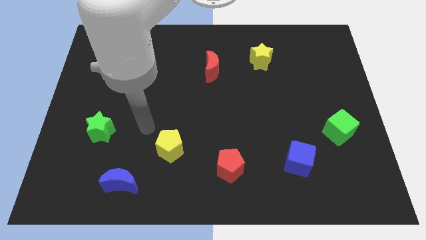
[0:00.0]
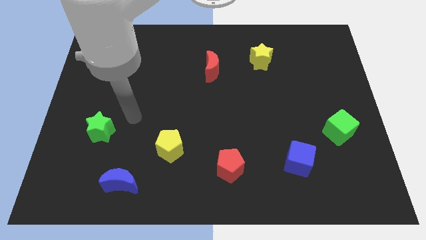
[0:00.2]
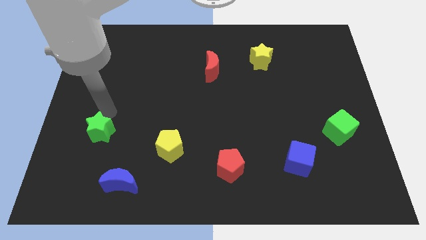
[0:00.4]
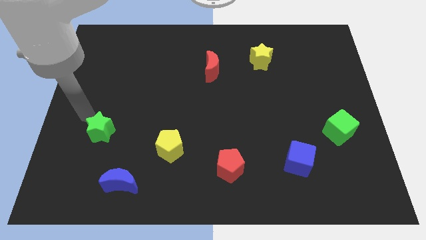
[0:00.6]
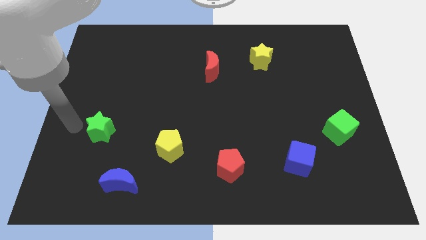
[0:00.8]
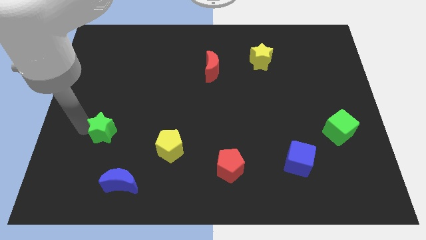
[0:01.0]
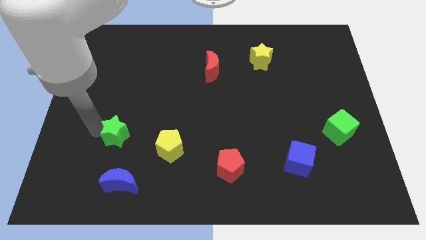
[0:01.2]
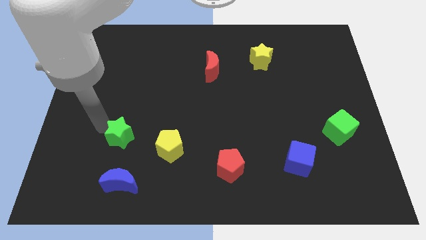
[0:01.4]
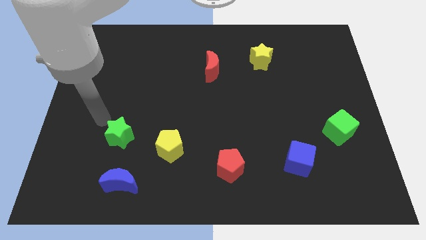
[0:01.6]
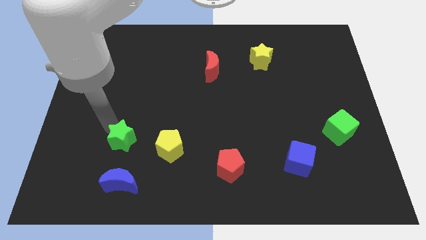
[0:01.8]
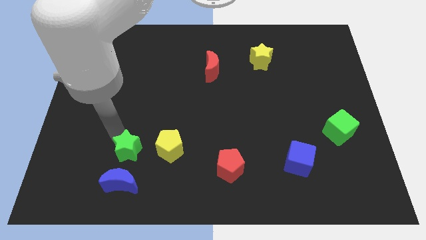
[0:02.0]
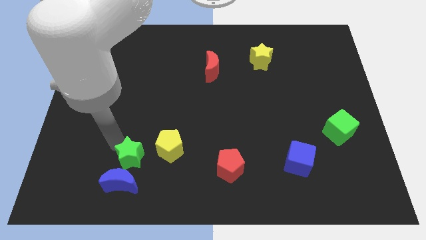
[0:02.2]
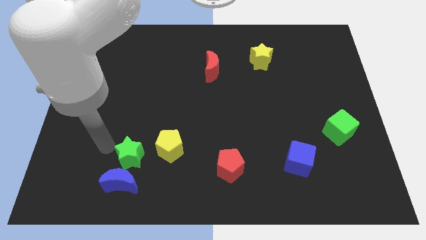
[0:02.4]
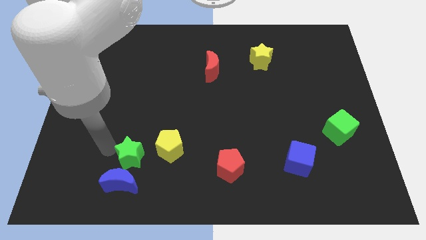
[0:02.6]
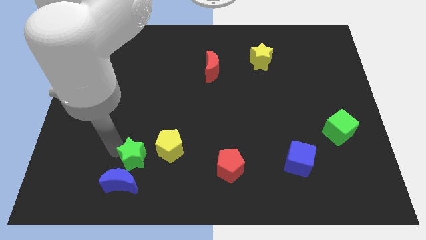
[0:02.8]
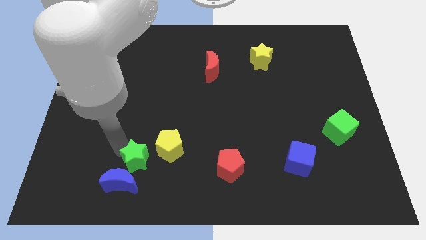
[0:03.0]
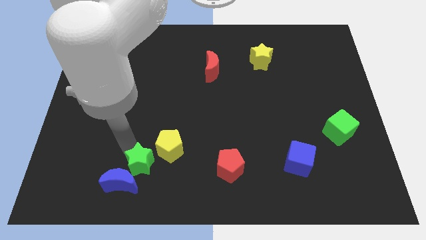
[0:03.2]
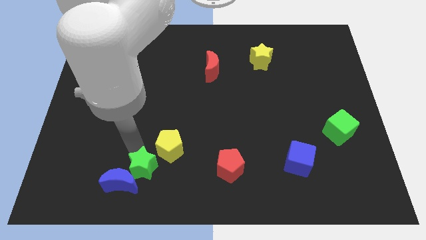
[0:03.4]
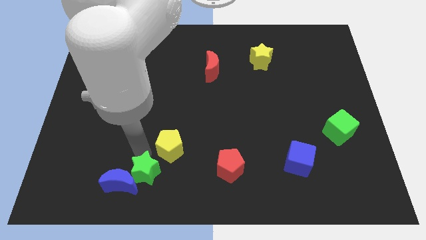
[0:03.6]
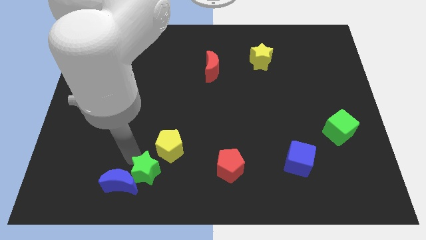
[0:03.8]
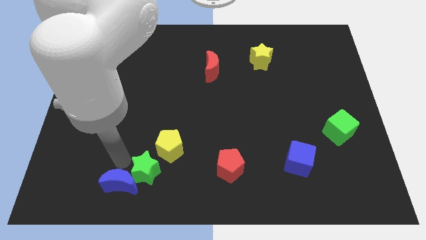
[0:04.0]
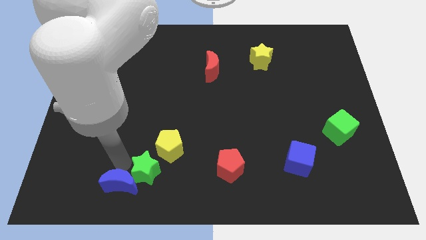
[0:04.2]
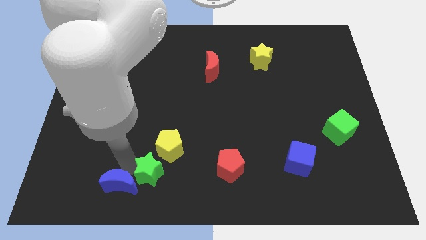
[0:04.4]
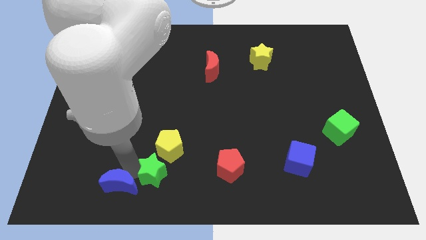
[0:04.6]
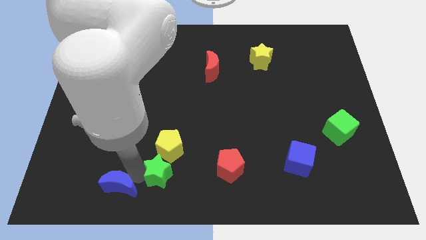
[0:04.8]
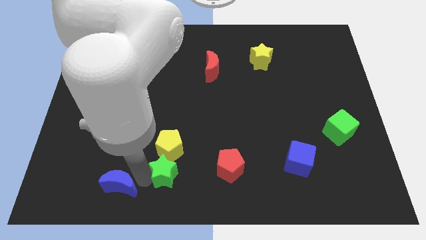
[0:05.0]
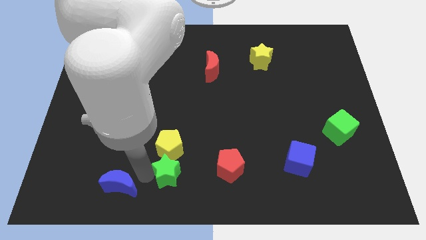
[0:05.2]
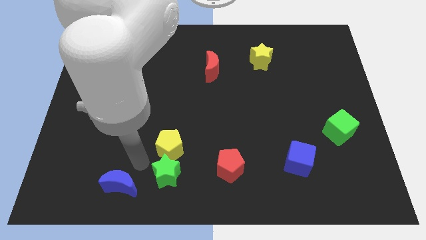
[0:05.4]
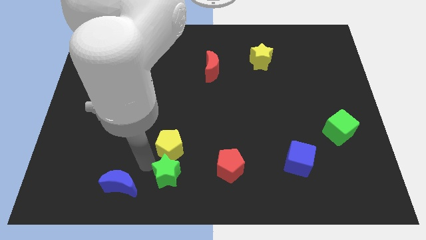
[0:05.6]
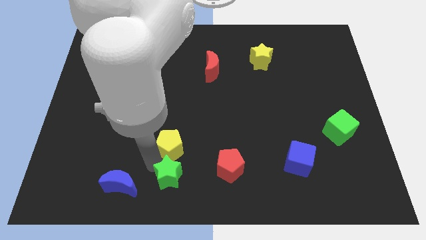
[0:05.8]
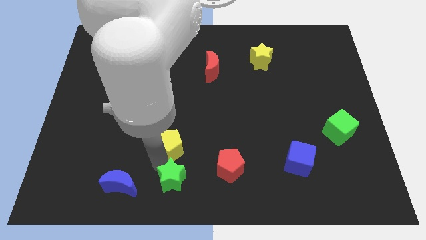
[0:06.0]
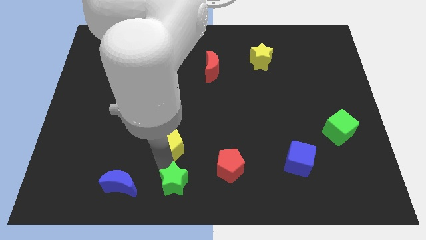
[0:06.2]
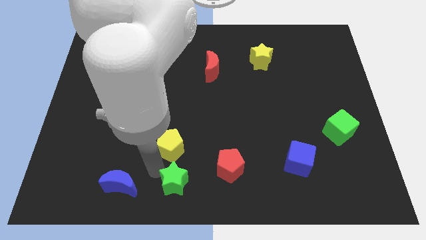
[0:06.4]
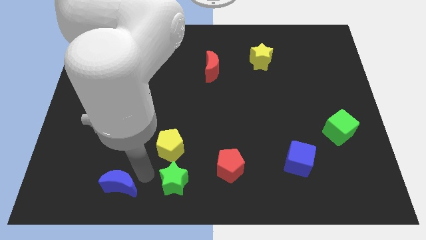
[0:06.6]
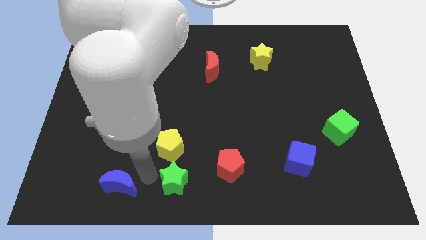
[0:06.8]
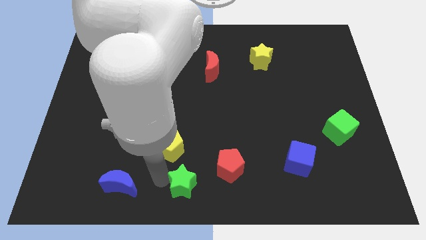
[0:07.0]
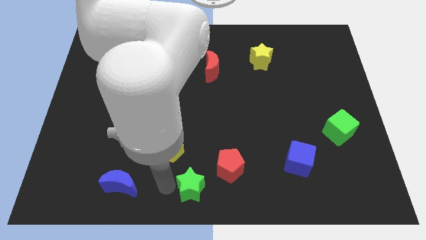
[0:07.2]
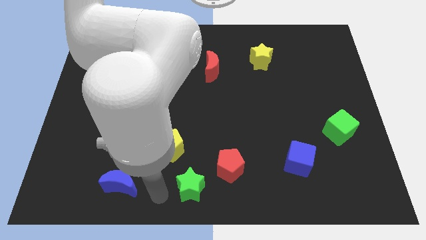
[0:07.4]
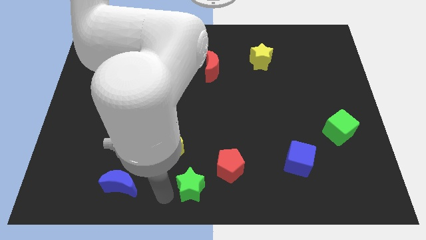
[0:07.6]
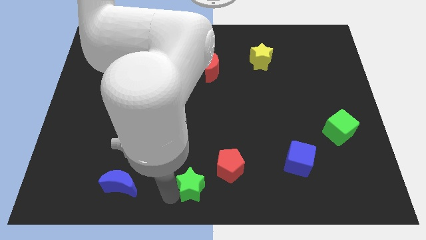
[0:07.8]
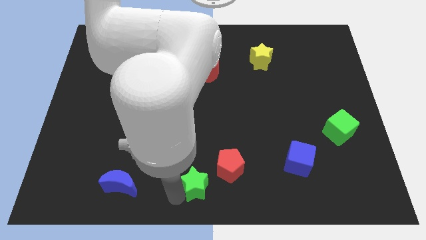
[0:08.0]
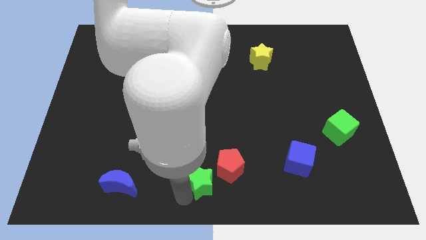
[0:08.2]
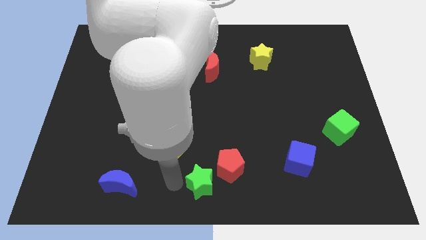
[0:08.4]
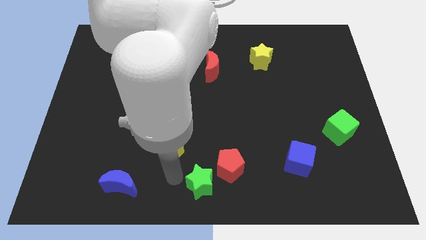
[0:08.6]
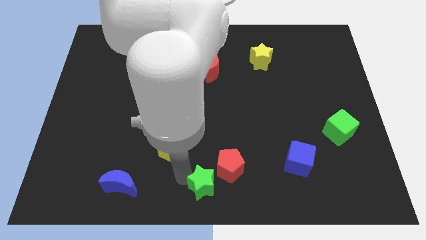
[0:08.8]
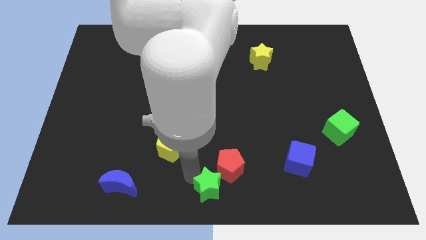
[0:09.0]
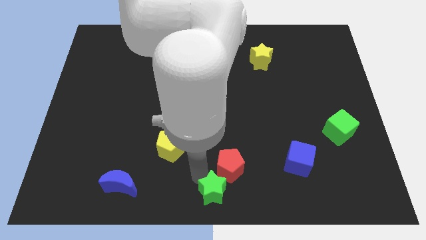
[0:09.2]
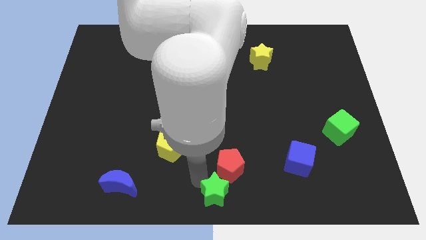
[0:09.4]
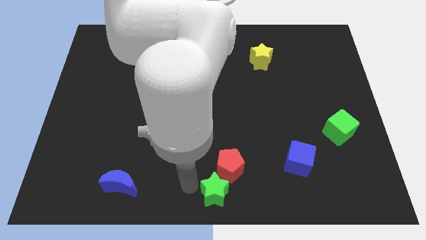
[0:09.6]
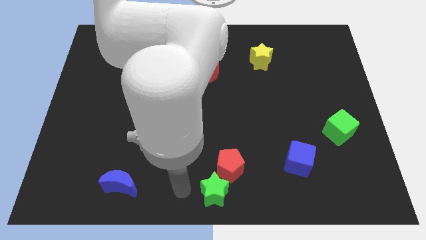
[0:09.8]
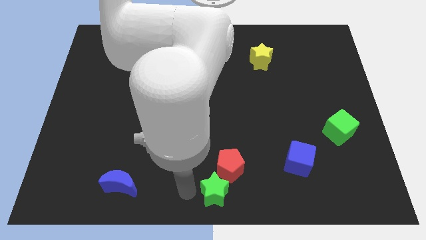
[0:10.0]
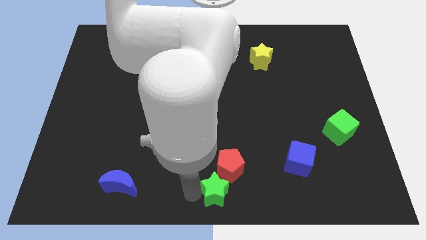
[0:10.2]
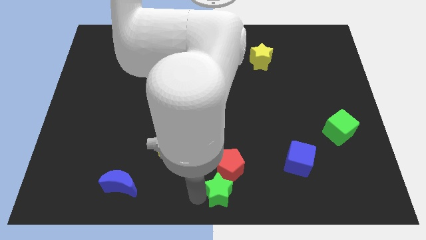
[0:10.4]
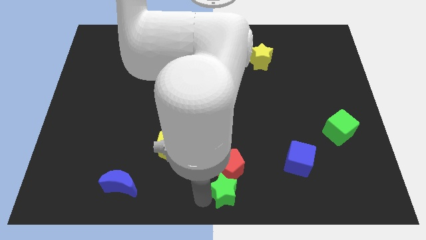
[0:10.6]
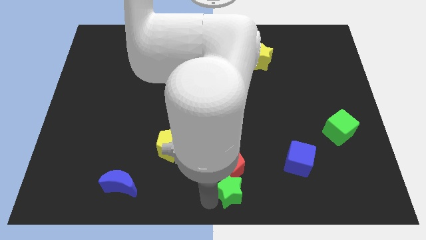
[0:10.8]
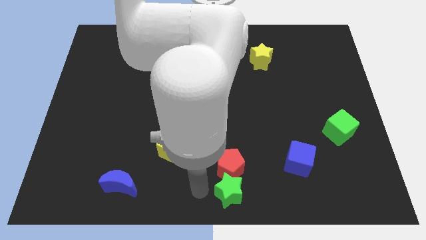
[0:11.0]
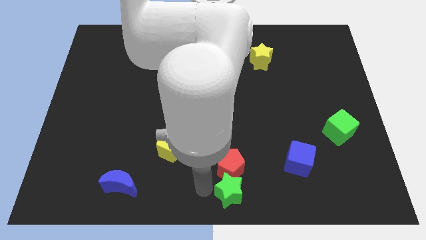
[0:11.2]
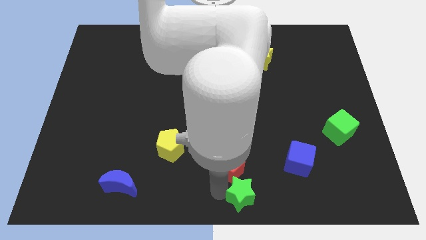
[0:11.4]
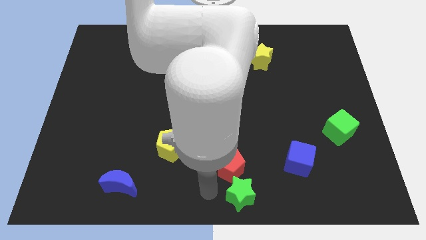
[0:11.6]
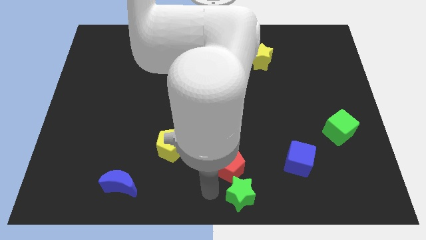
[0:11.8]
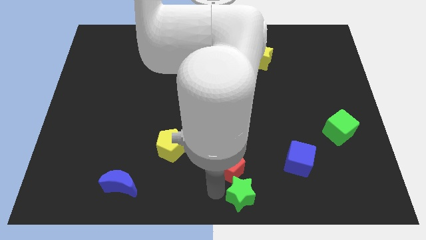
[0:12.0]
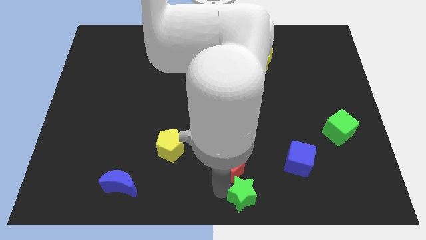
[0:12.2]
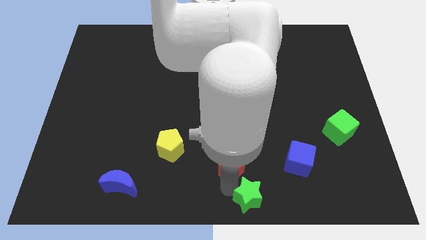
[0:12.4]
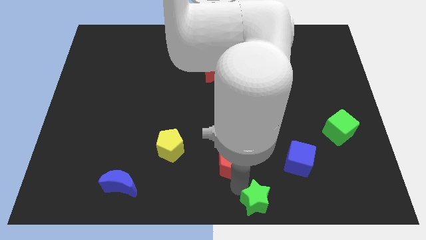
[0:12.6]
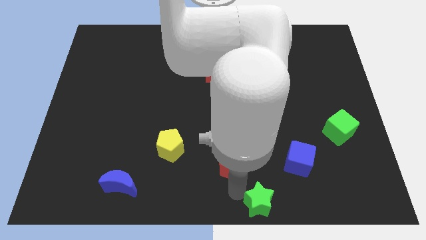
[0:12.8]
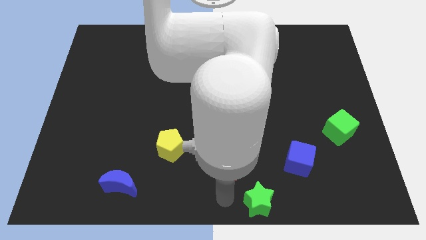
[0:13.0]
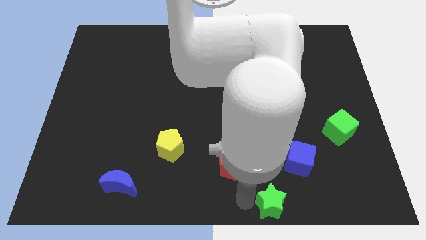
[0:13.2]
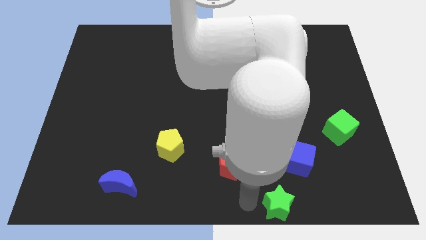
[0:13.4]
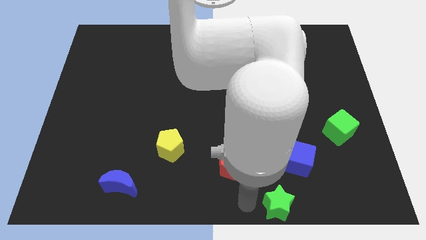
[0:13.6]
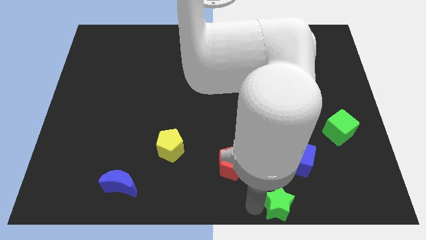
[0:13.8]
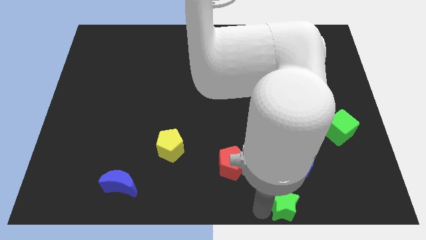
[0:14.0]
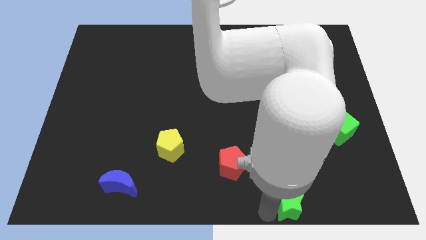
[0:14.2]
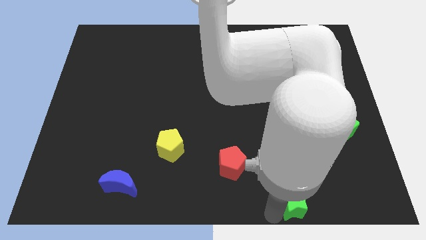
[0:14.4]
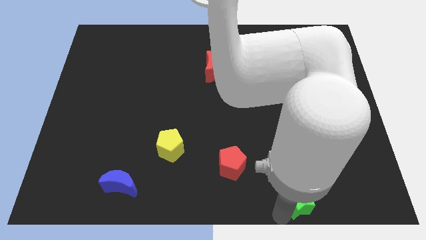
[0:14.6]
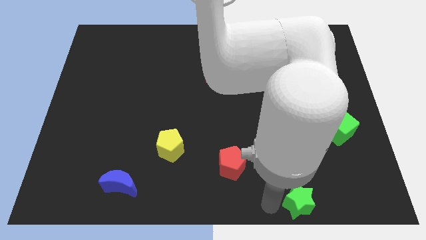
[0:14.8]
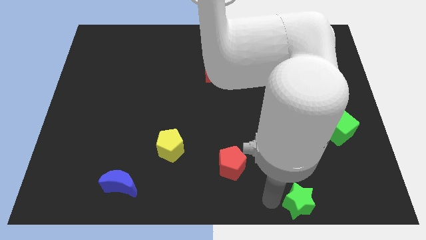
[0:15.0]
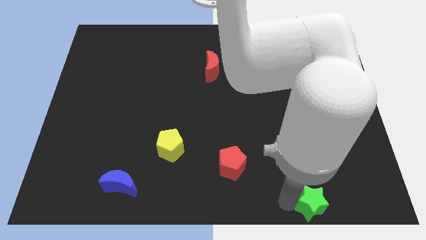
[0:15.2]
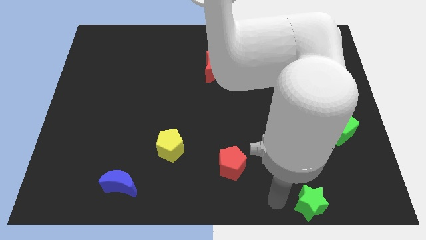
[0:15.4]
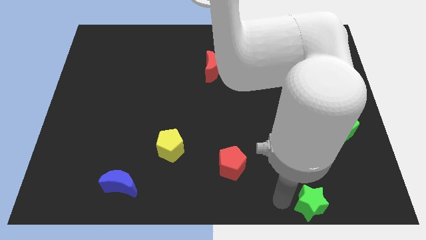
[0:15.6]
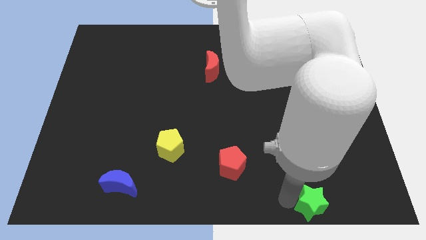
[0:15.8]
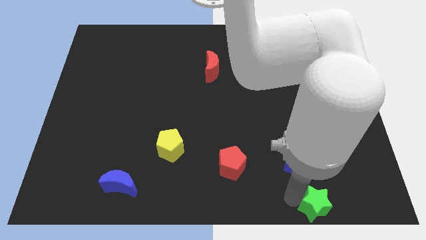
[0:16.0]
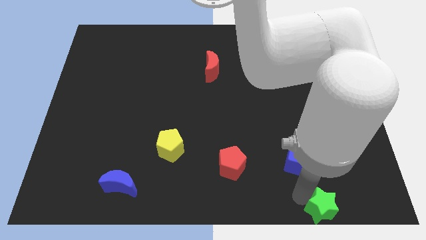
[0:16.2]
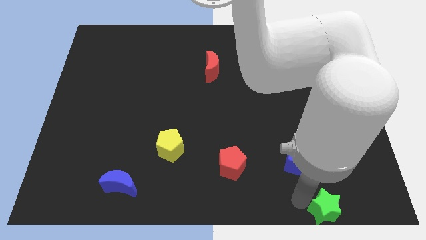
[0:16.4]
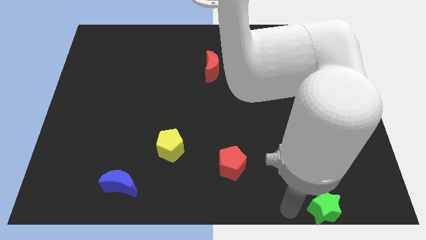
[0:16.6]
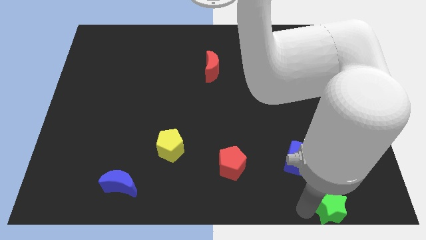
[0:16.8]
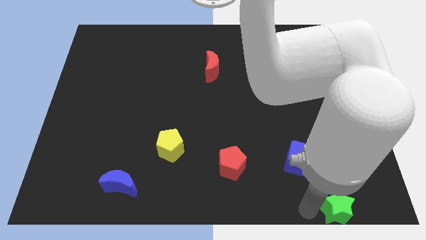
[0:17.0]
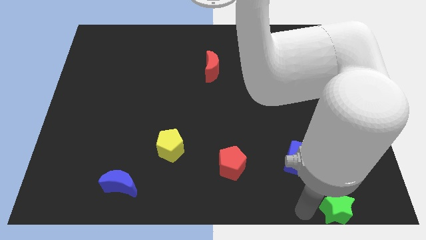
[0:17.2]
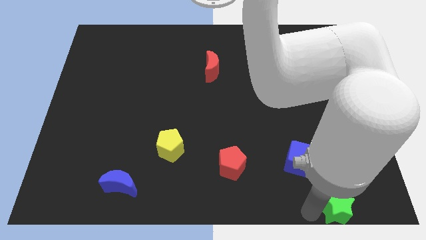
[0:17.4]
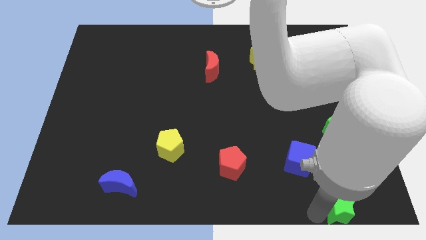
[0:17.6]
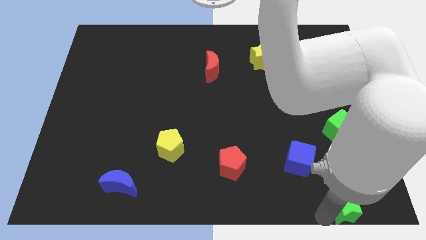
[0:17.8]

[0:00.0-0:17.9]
put the green star to the bottom right of the board
